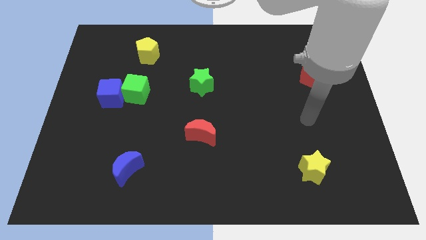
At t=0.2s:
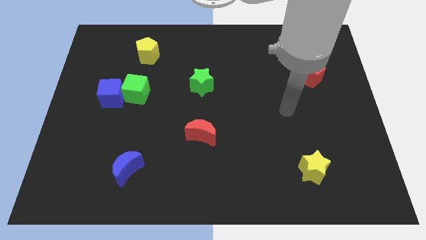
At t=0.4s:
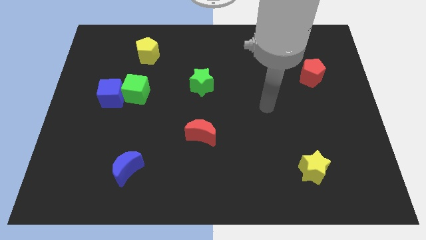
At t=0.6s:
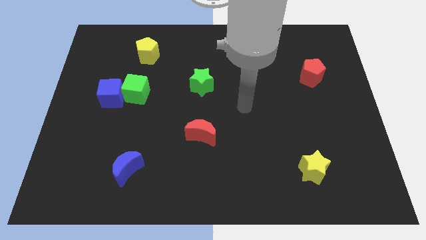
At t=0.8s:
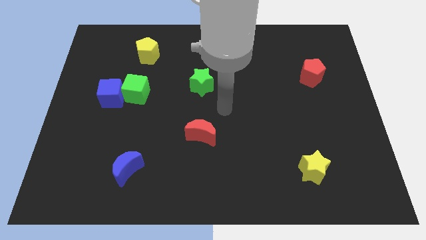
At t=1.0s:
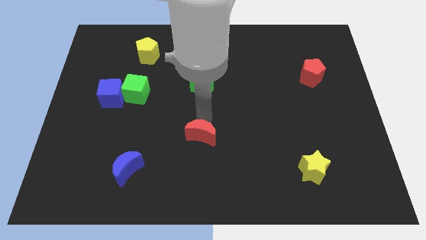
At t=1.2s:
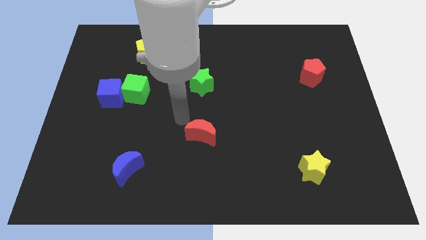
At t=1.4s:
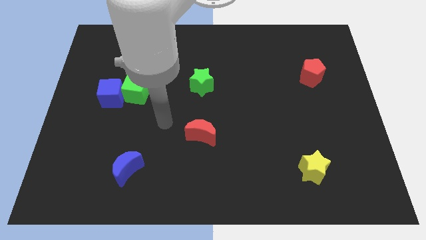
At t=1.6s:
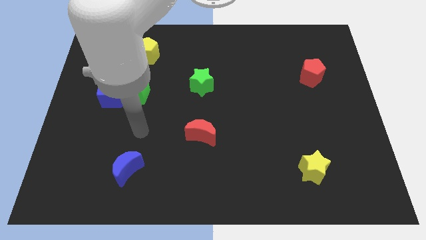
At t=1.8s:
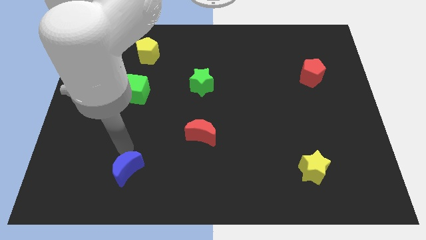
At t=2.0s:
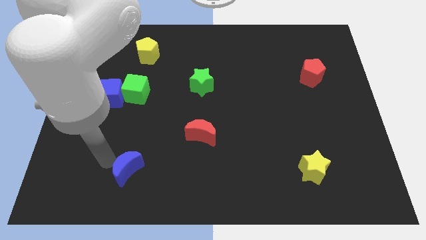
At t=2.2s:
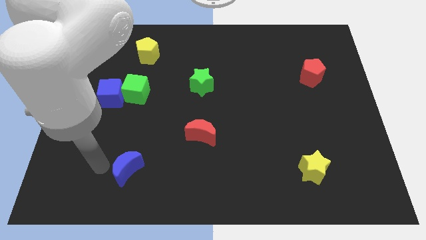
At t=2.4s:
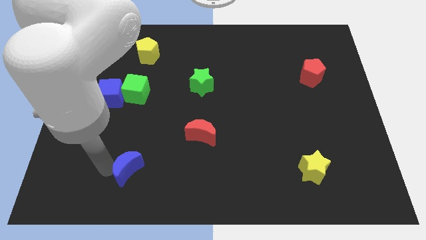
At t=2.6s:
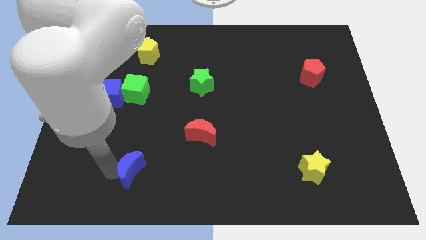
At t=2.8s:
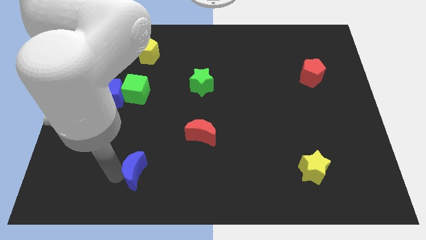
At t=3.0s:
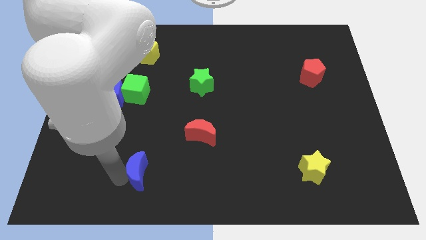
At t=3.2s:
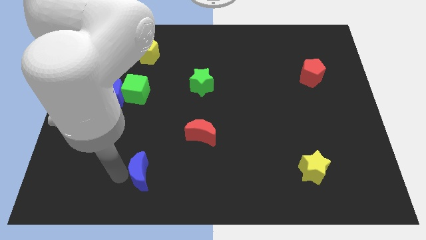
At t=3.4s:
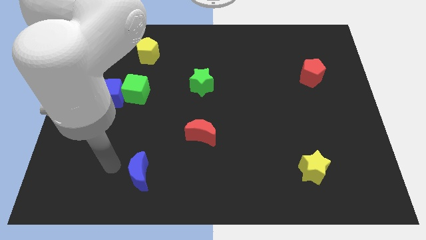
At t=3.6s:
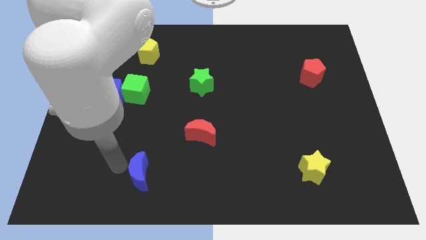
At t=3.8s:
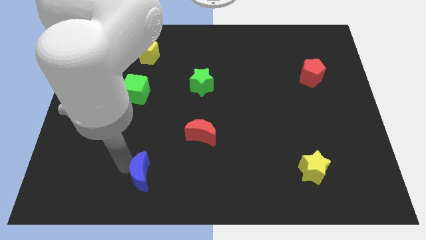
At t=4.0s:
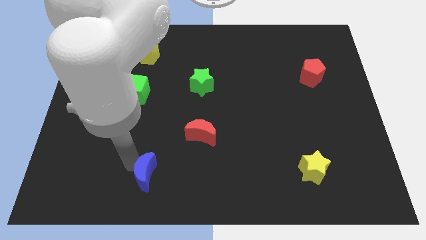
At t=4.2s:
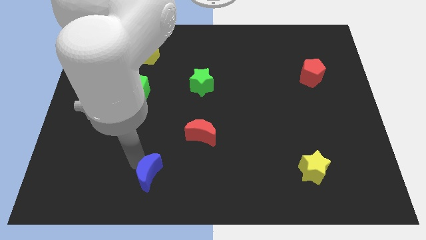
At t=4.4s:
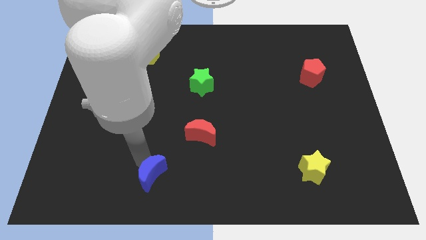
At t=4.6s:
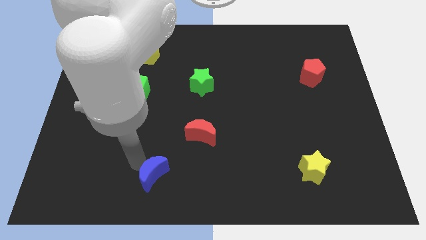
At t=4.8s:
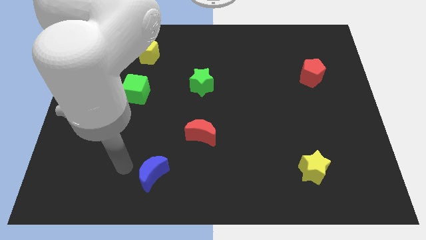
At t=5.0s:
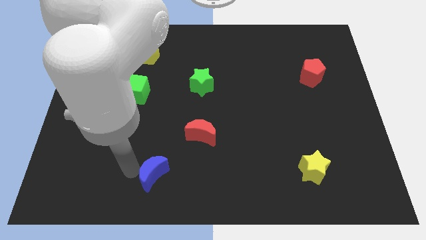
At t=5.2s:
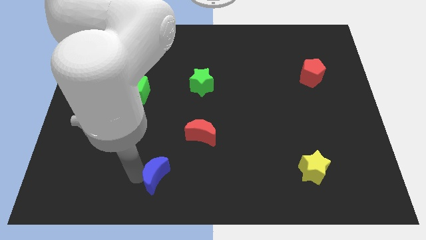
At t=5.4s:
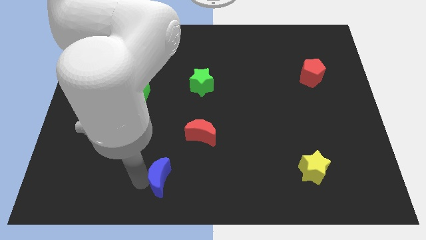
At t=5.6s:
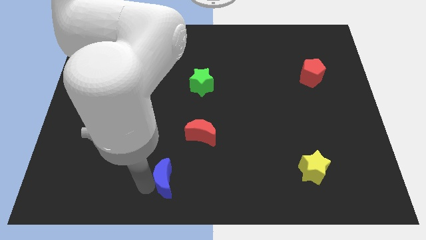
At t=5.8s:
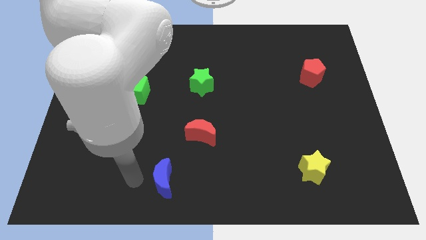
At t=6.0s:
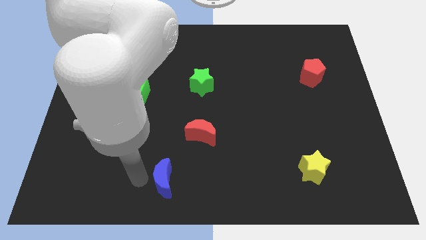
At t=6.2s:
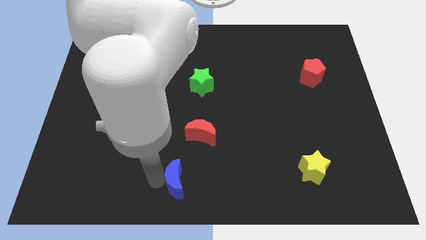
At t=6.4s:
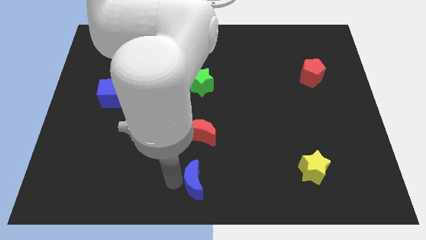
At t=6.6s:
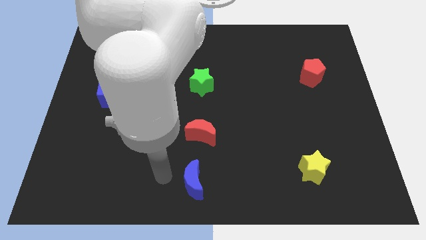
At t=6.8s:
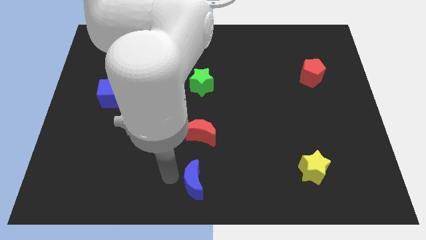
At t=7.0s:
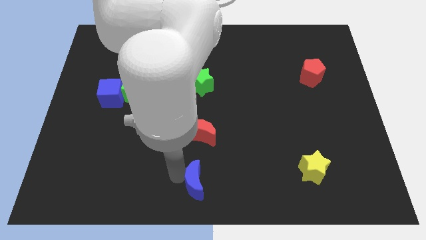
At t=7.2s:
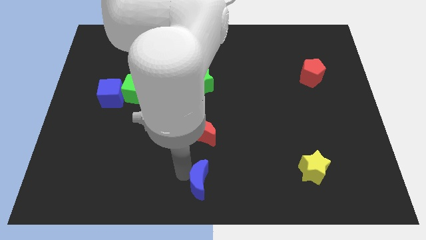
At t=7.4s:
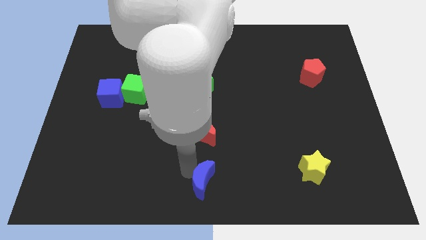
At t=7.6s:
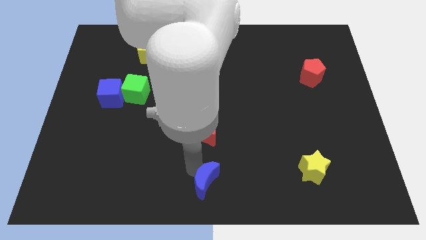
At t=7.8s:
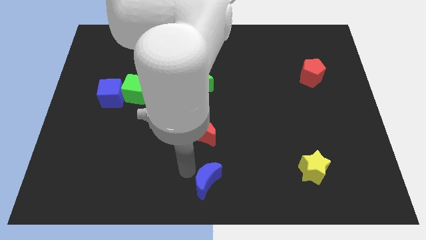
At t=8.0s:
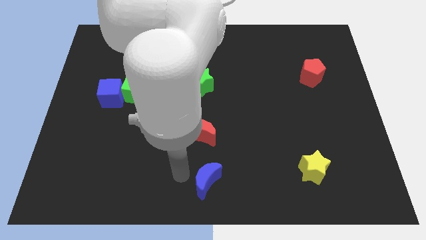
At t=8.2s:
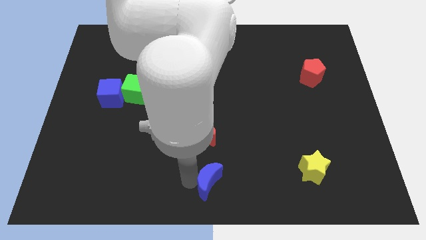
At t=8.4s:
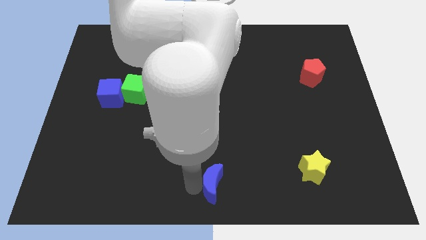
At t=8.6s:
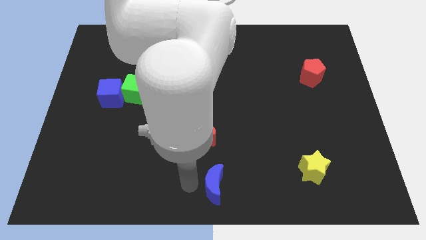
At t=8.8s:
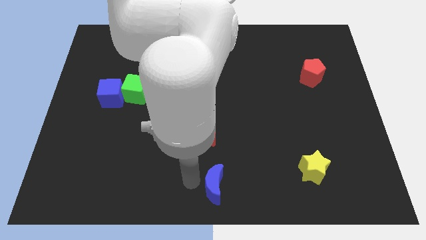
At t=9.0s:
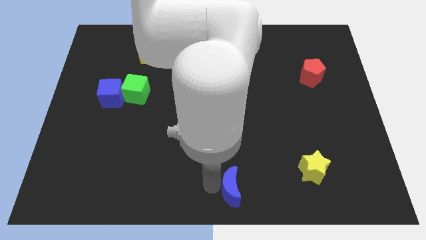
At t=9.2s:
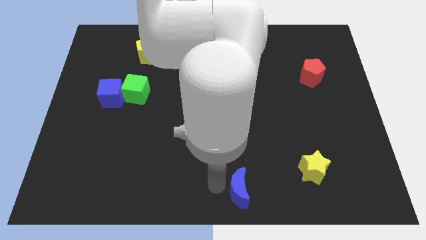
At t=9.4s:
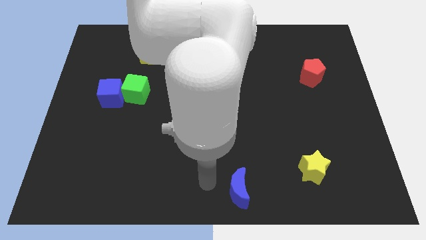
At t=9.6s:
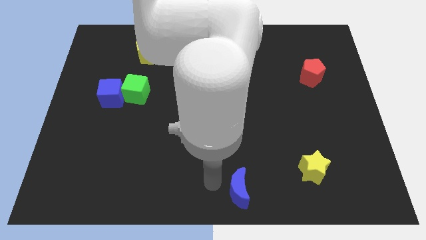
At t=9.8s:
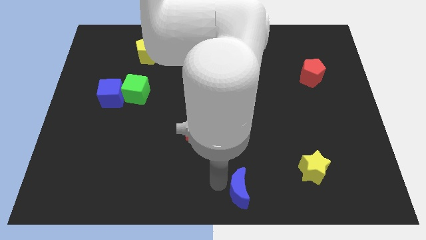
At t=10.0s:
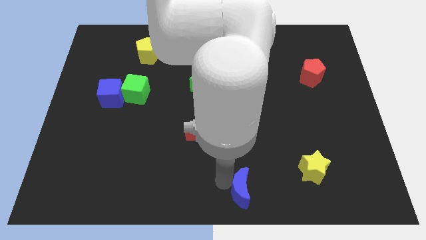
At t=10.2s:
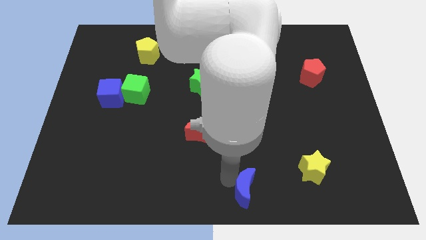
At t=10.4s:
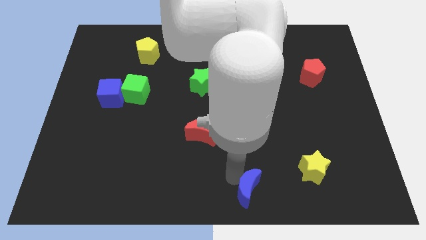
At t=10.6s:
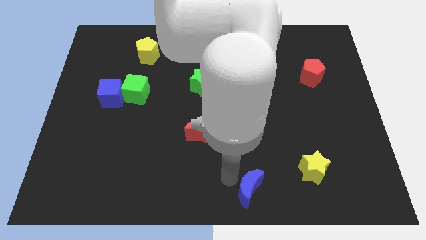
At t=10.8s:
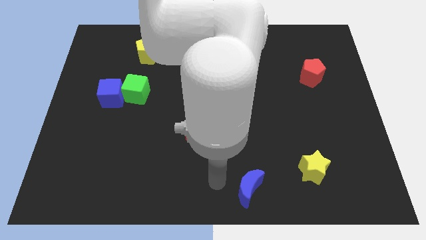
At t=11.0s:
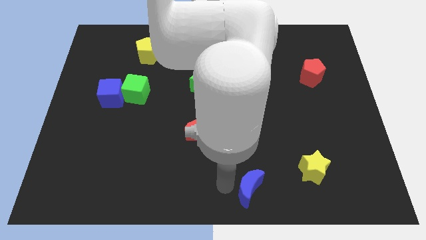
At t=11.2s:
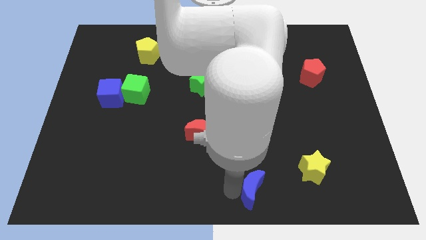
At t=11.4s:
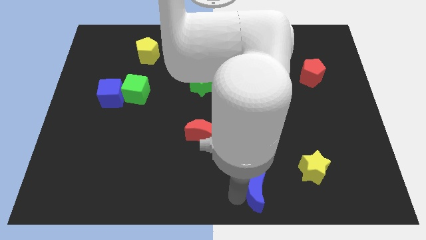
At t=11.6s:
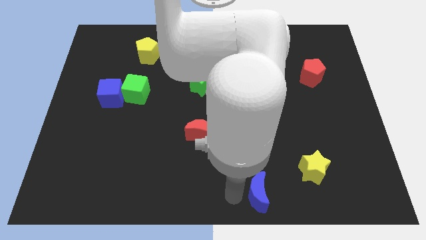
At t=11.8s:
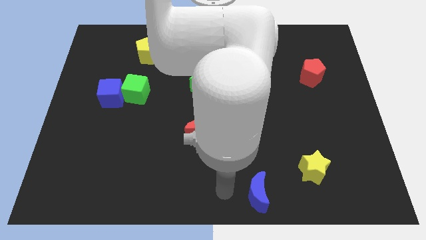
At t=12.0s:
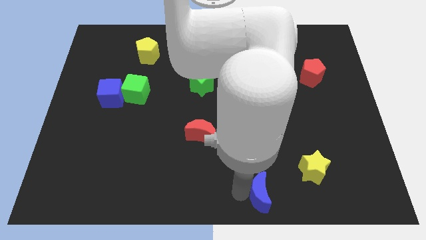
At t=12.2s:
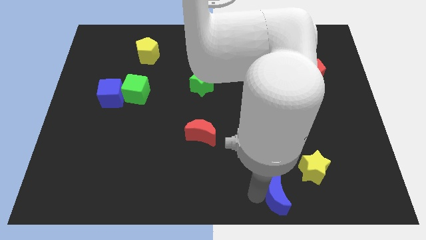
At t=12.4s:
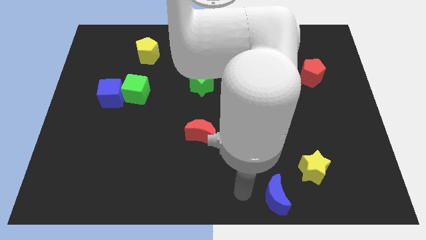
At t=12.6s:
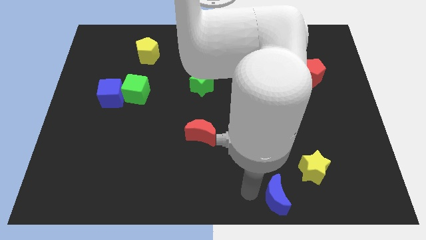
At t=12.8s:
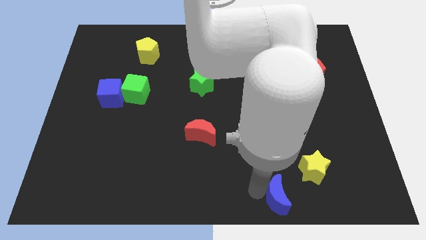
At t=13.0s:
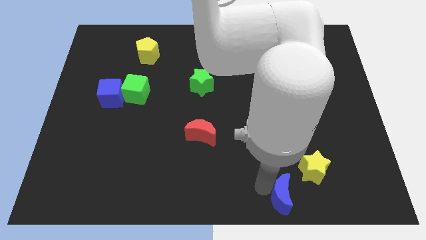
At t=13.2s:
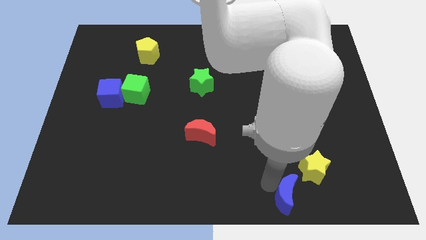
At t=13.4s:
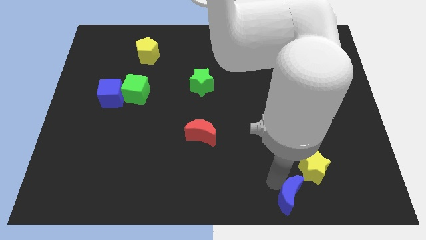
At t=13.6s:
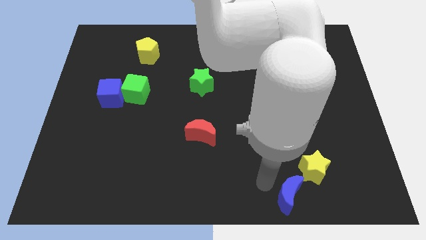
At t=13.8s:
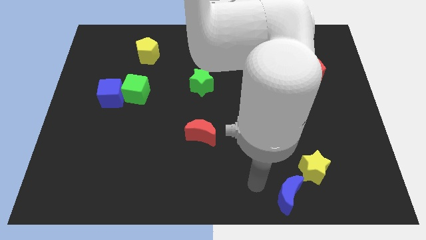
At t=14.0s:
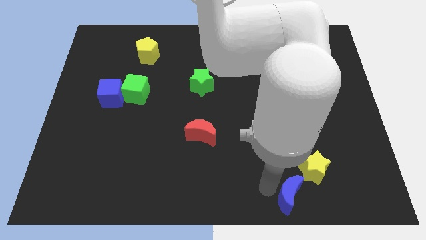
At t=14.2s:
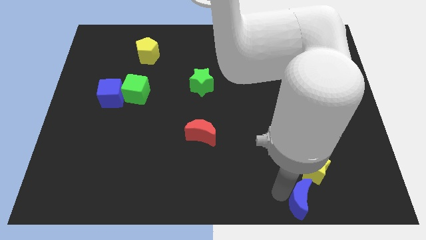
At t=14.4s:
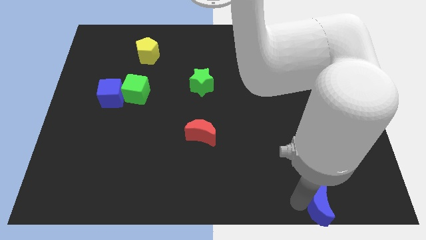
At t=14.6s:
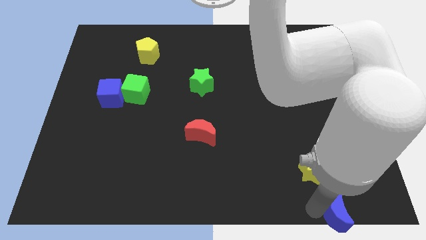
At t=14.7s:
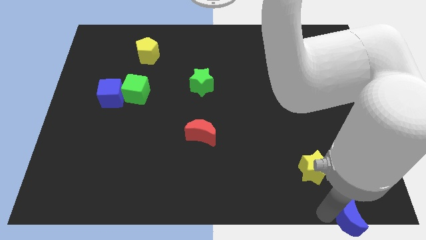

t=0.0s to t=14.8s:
slide the blue moon to the lower right corner
